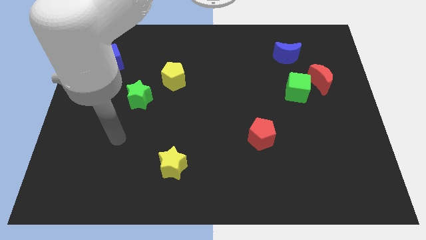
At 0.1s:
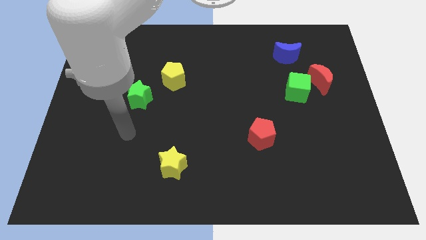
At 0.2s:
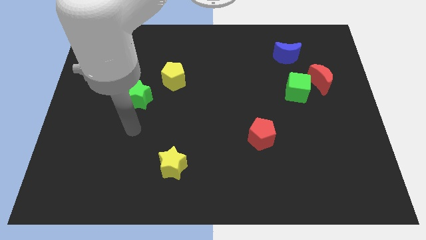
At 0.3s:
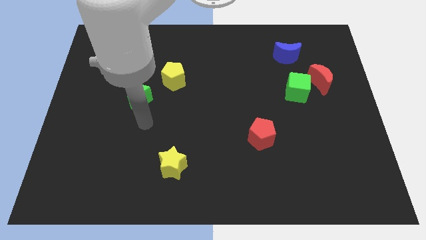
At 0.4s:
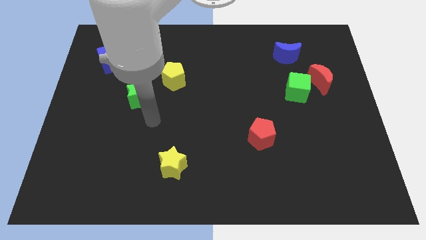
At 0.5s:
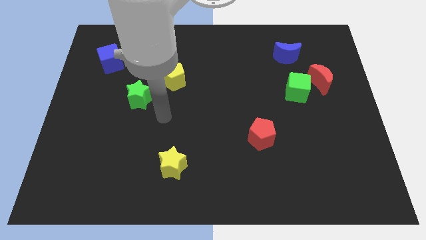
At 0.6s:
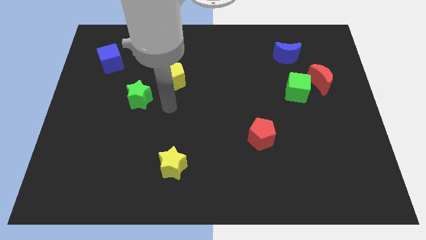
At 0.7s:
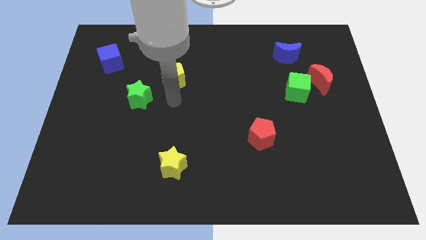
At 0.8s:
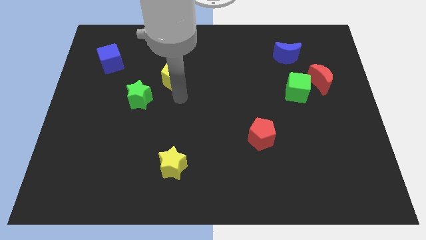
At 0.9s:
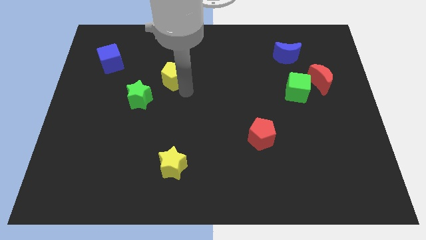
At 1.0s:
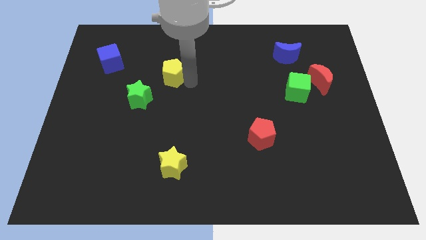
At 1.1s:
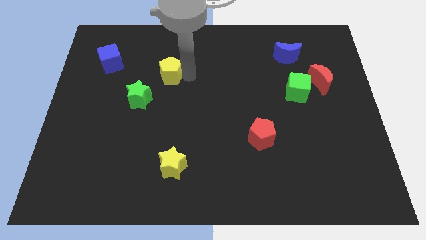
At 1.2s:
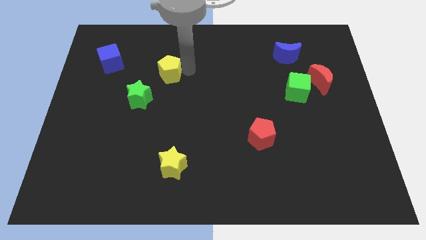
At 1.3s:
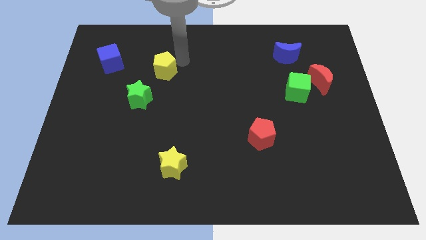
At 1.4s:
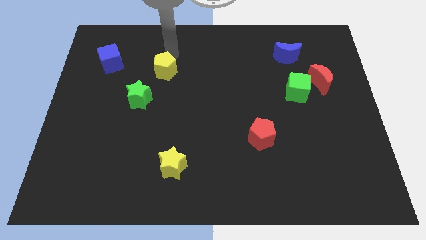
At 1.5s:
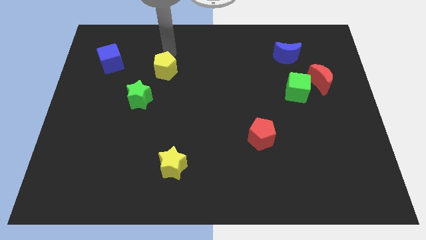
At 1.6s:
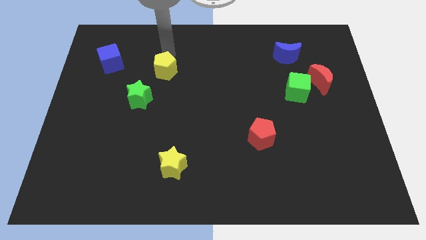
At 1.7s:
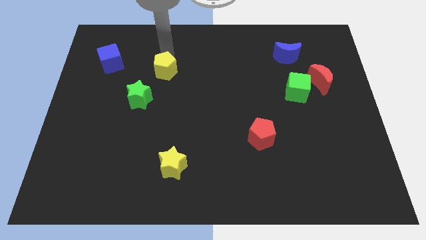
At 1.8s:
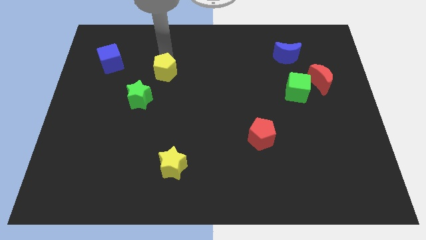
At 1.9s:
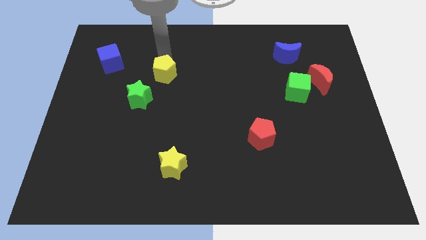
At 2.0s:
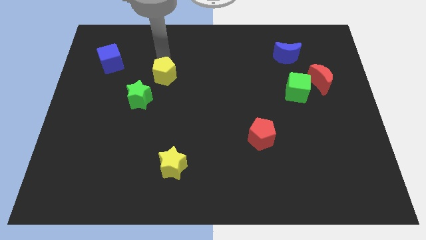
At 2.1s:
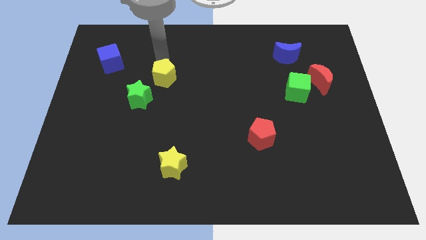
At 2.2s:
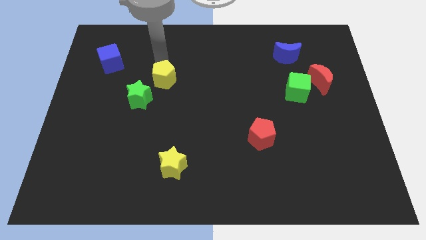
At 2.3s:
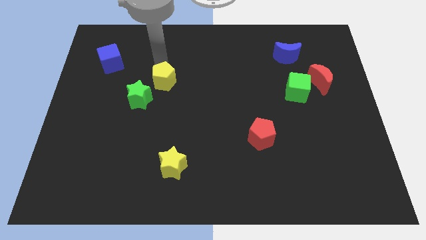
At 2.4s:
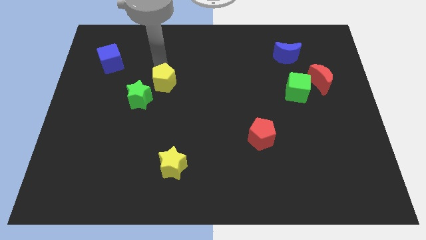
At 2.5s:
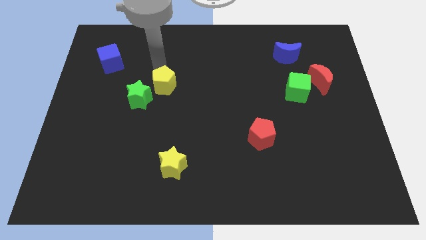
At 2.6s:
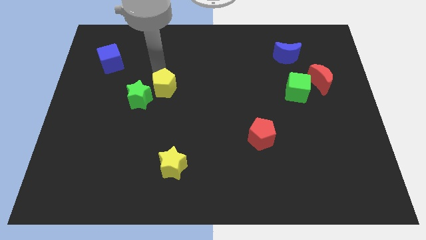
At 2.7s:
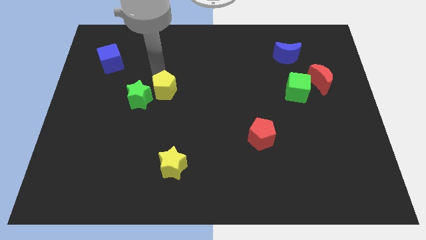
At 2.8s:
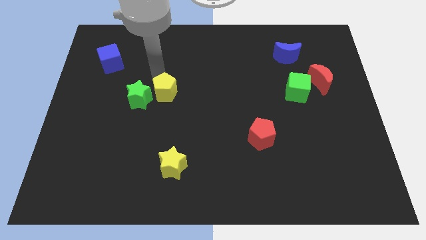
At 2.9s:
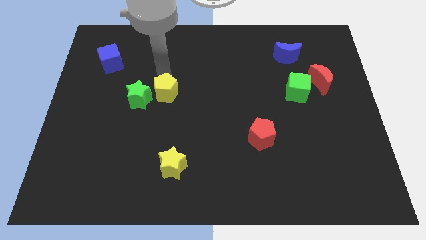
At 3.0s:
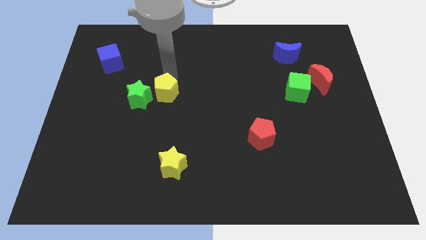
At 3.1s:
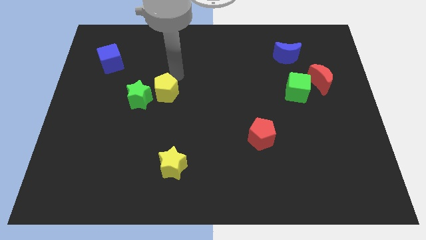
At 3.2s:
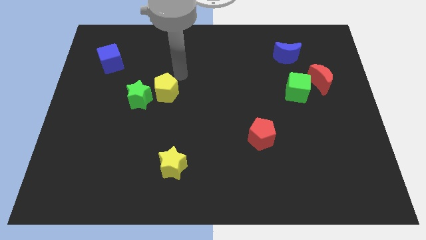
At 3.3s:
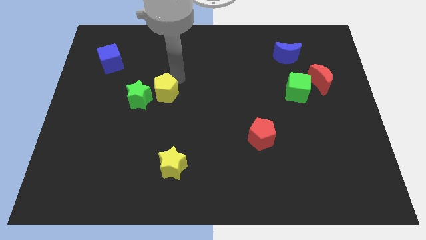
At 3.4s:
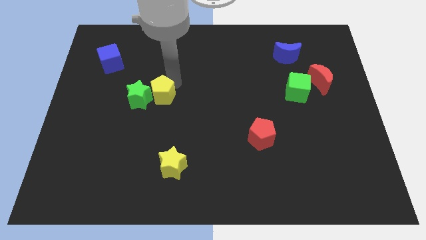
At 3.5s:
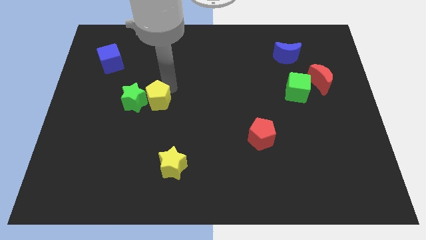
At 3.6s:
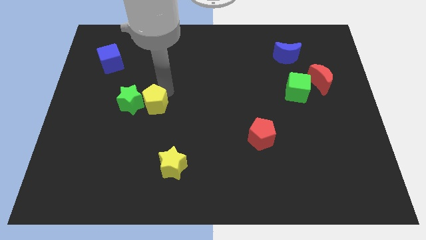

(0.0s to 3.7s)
push the yellow pentagon somewhat diagonally down and left

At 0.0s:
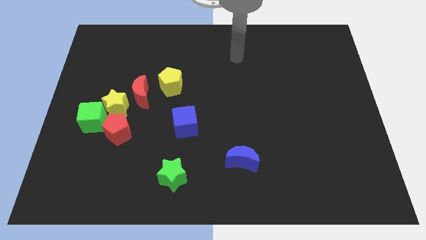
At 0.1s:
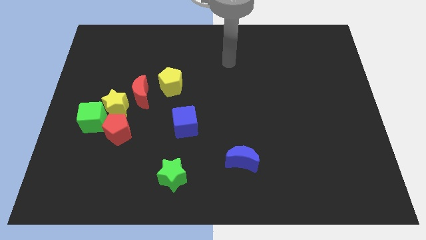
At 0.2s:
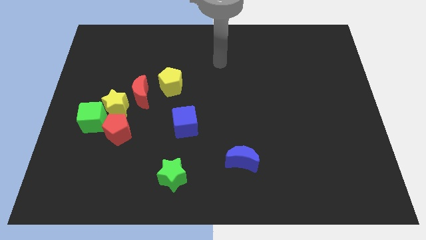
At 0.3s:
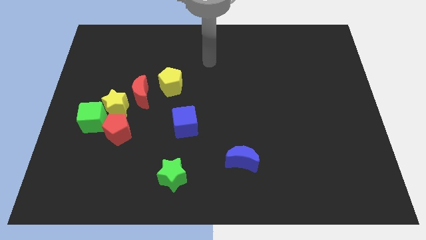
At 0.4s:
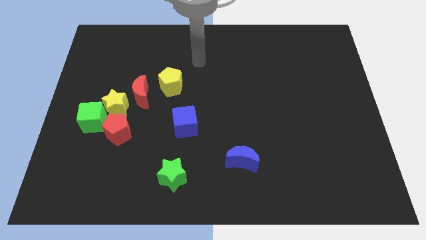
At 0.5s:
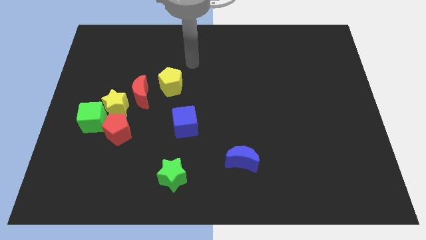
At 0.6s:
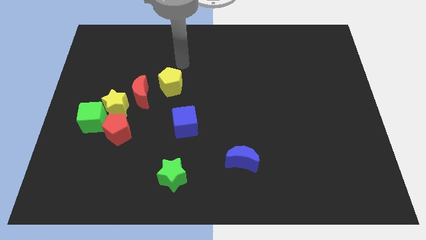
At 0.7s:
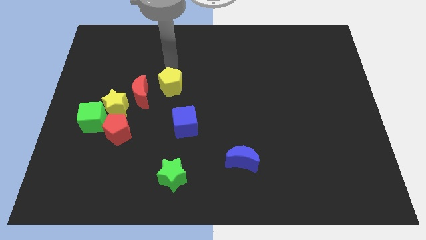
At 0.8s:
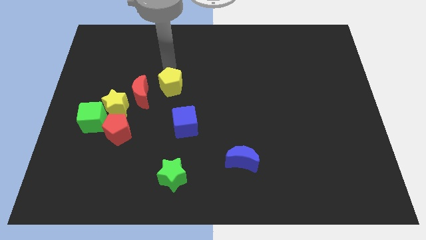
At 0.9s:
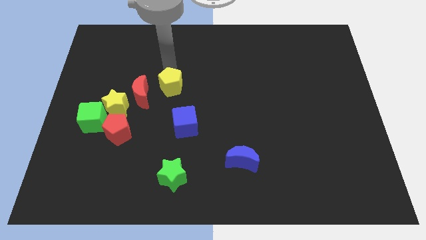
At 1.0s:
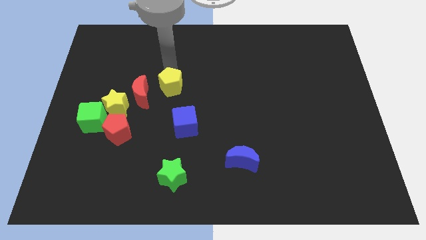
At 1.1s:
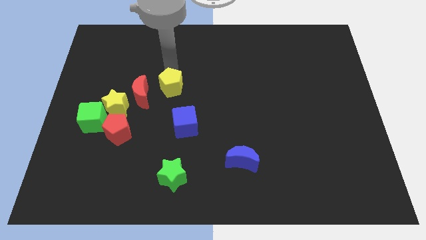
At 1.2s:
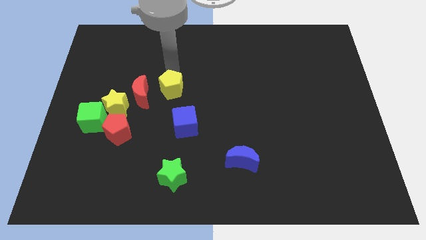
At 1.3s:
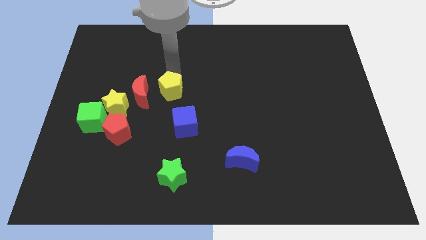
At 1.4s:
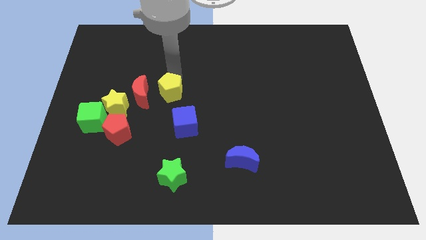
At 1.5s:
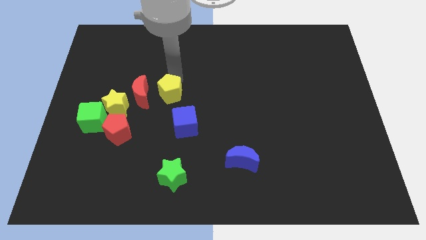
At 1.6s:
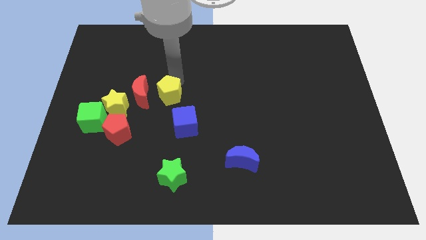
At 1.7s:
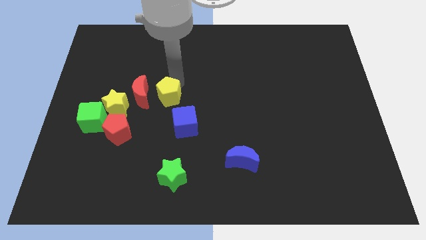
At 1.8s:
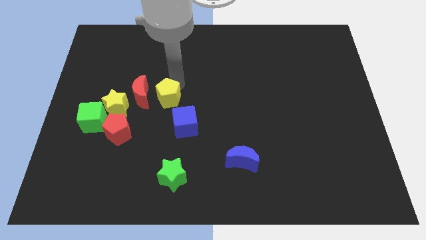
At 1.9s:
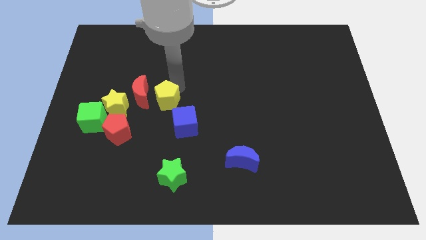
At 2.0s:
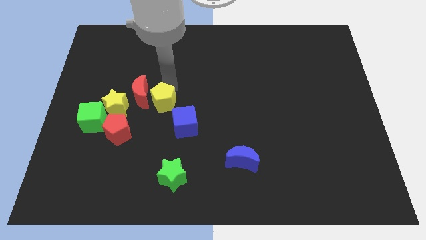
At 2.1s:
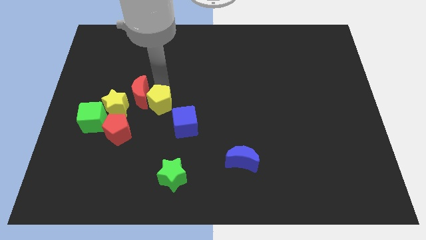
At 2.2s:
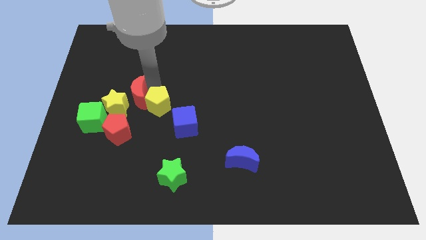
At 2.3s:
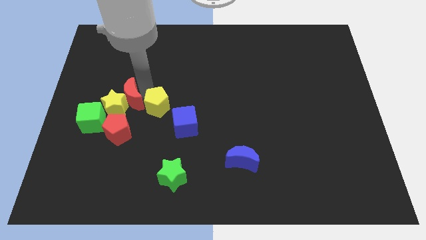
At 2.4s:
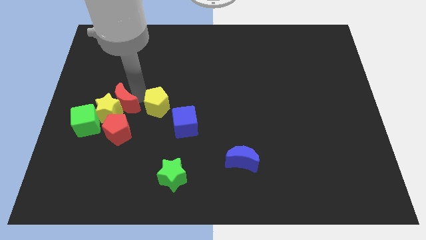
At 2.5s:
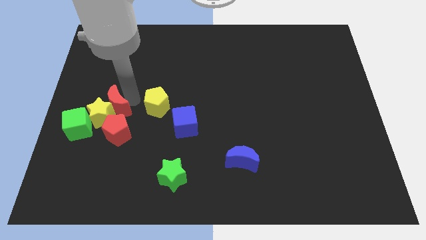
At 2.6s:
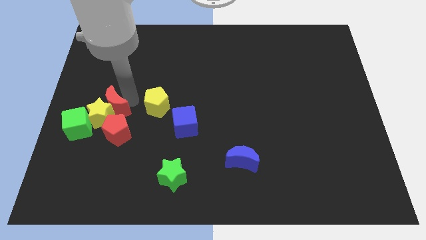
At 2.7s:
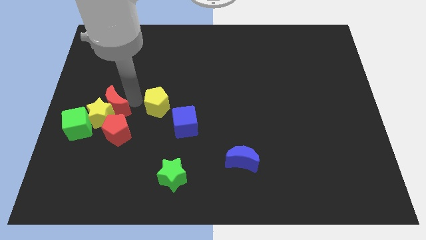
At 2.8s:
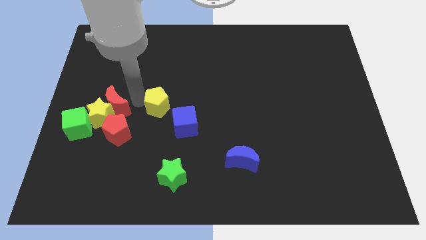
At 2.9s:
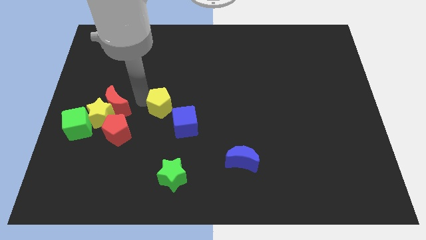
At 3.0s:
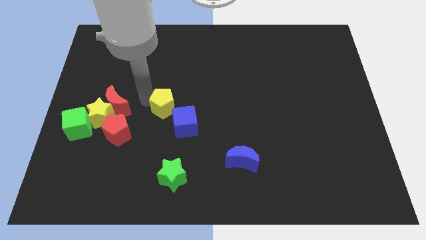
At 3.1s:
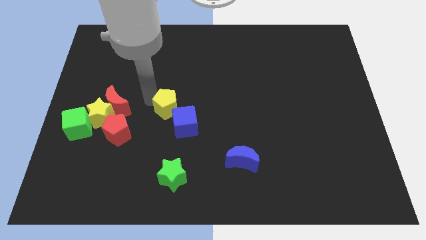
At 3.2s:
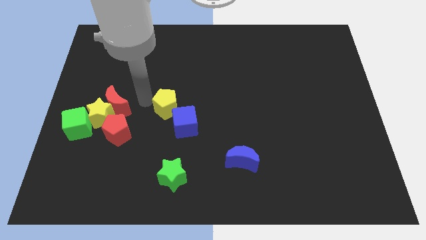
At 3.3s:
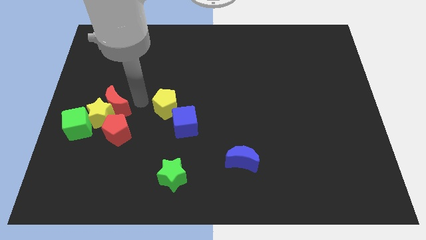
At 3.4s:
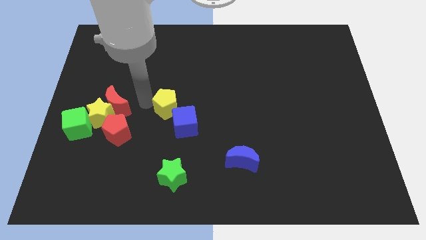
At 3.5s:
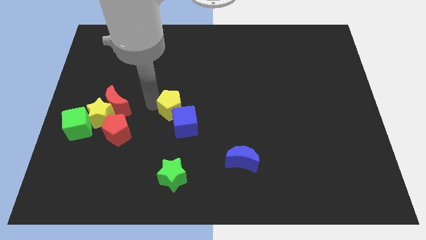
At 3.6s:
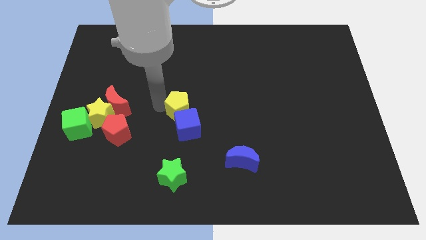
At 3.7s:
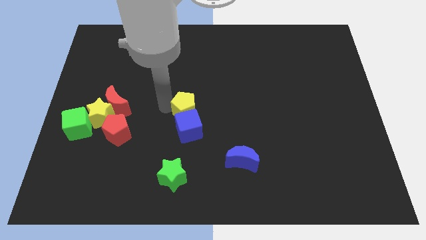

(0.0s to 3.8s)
move the yellow pentagon downwards and then right a bit

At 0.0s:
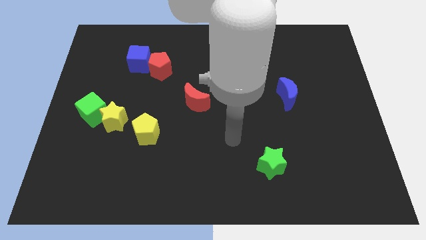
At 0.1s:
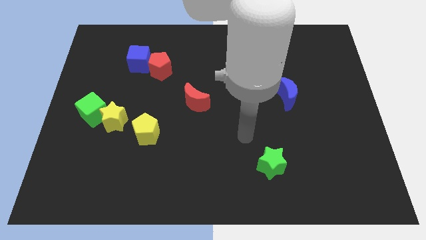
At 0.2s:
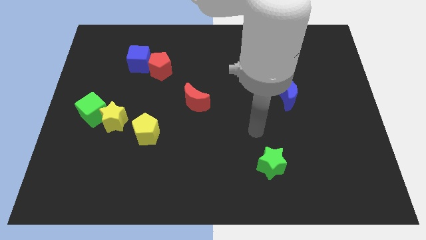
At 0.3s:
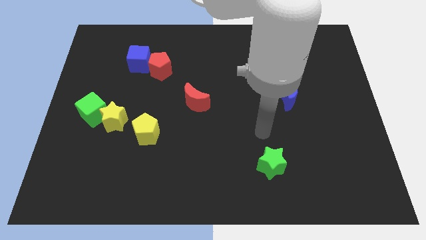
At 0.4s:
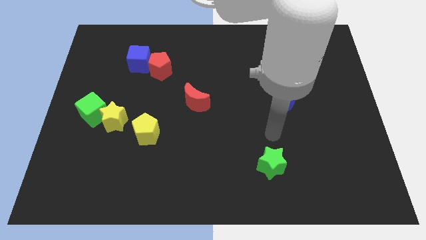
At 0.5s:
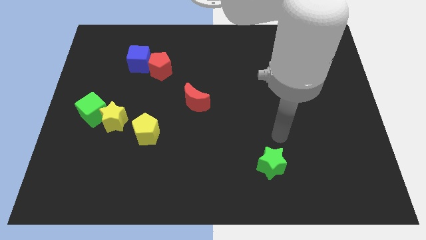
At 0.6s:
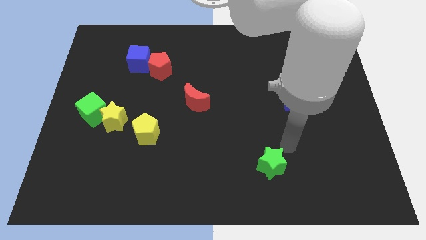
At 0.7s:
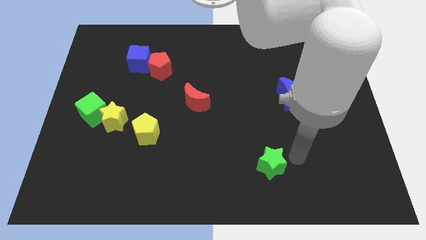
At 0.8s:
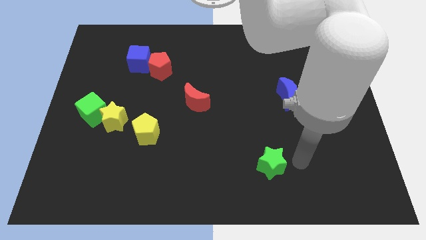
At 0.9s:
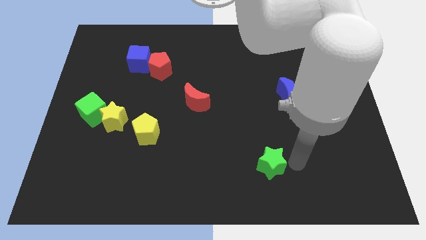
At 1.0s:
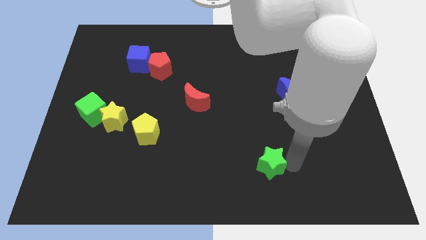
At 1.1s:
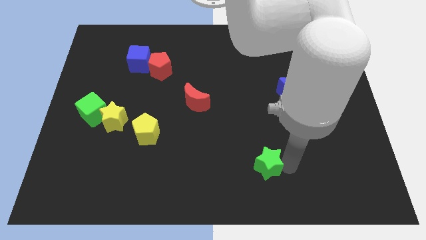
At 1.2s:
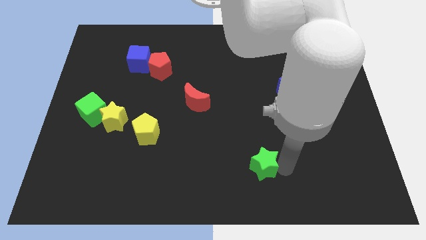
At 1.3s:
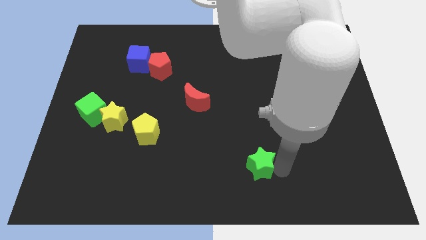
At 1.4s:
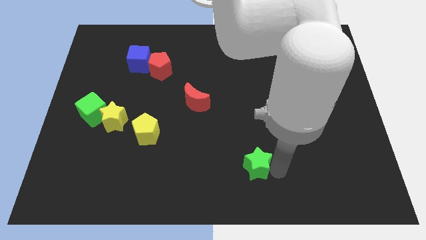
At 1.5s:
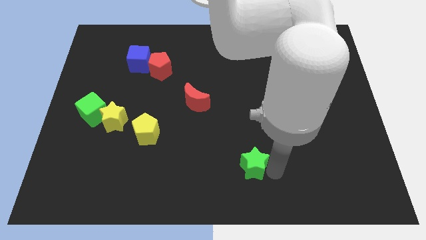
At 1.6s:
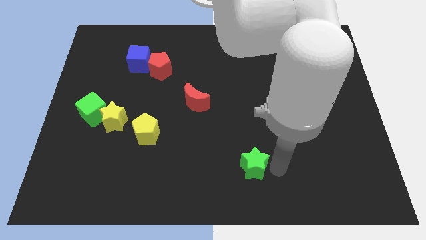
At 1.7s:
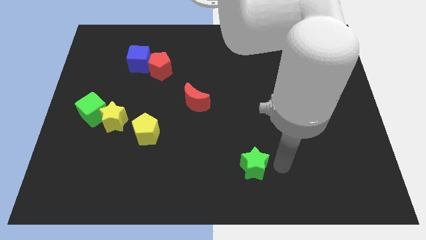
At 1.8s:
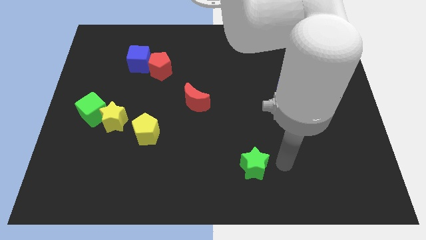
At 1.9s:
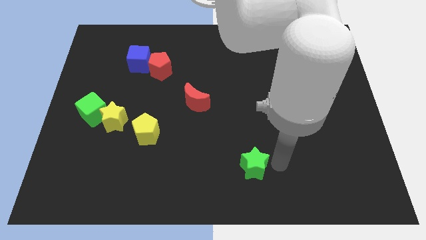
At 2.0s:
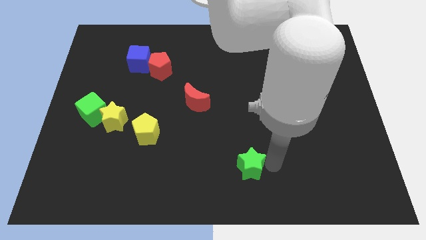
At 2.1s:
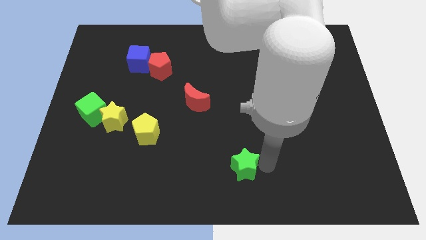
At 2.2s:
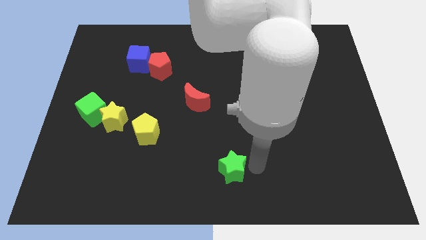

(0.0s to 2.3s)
push the green star a bit to the left
